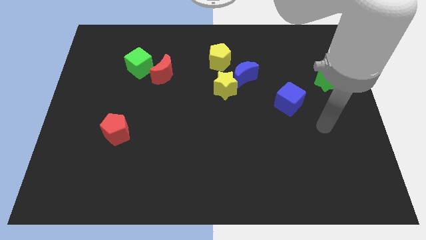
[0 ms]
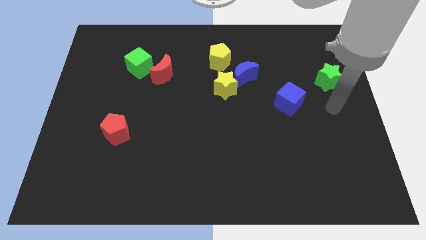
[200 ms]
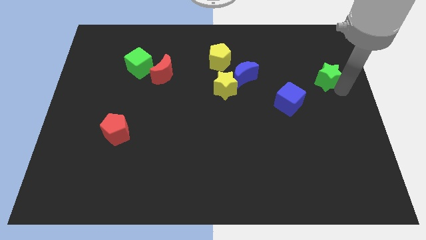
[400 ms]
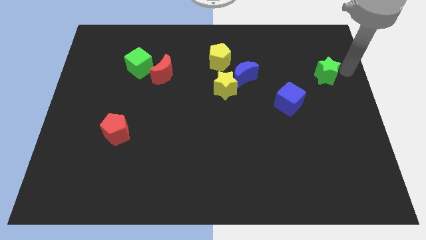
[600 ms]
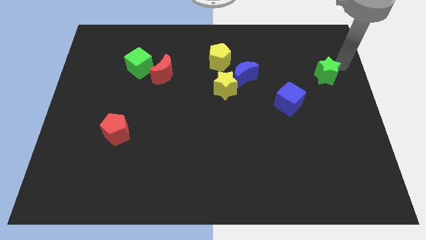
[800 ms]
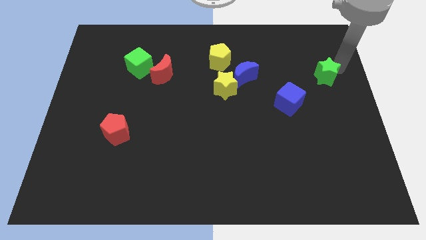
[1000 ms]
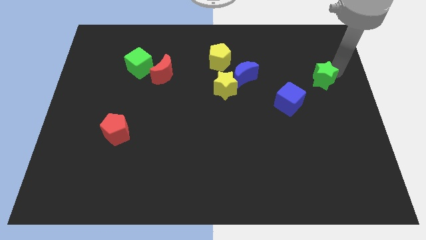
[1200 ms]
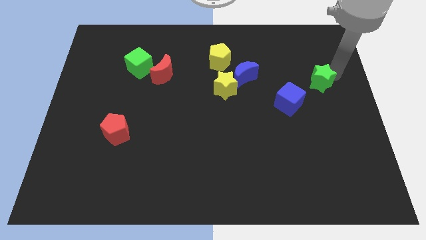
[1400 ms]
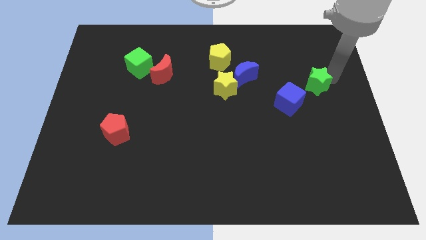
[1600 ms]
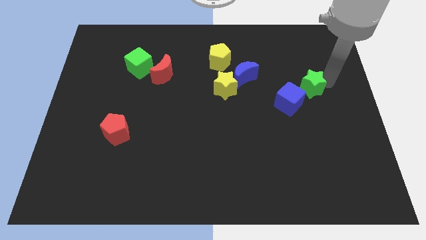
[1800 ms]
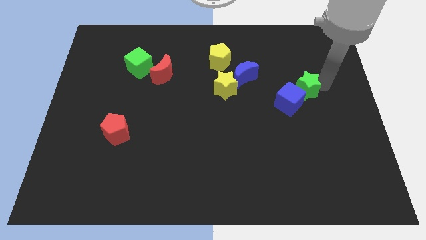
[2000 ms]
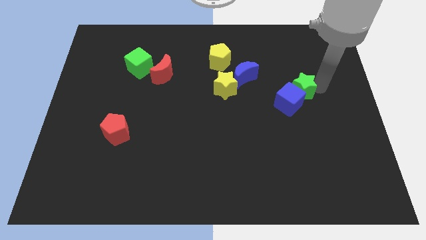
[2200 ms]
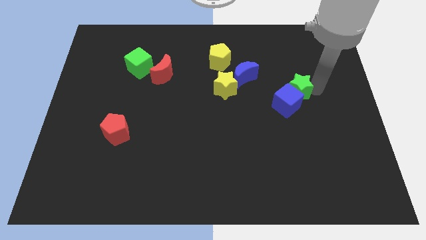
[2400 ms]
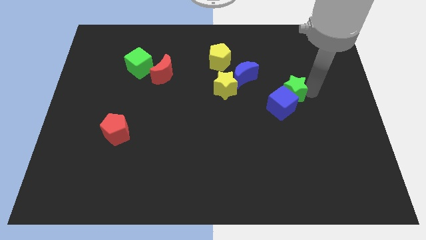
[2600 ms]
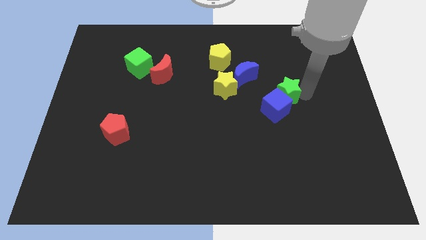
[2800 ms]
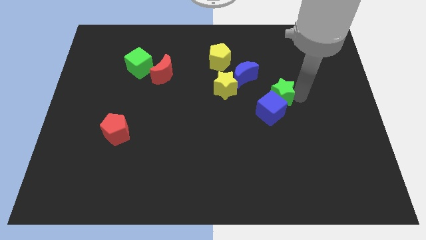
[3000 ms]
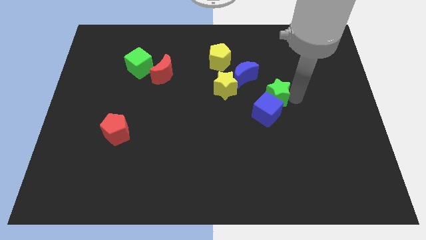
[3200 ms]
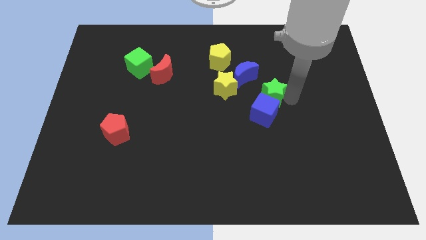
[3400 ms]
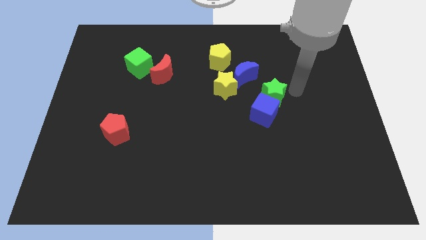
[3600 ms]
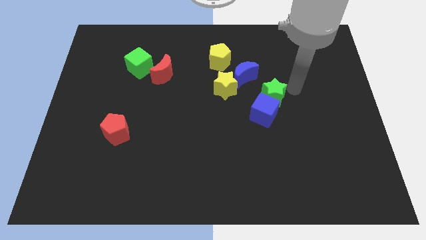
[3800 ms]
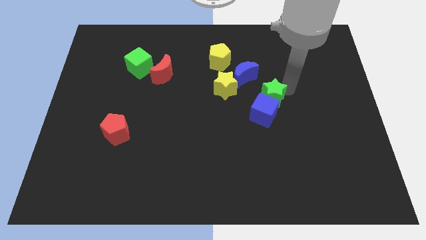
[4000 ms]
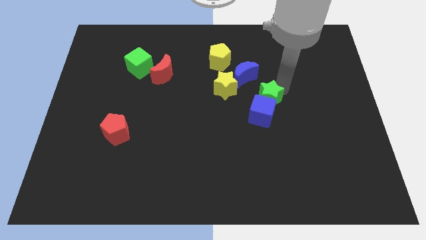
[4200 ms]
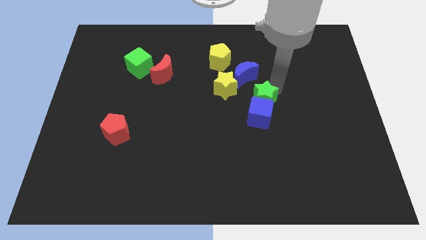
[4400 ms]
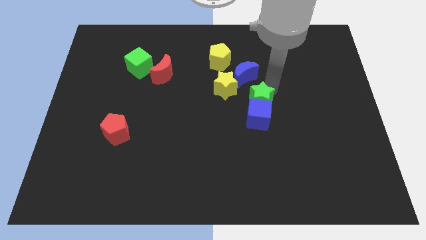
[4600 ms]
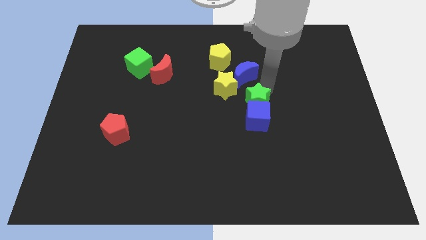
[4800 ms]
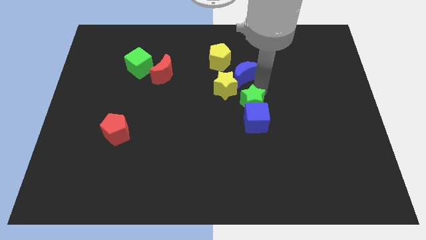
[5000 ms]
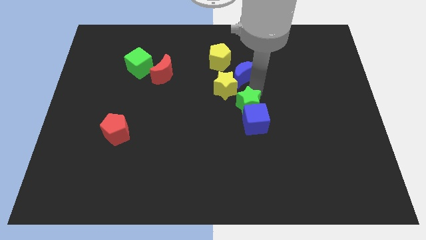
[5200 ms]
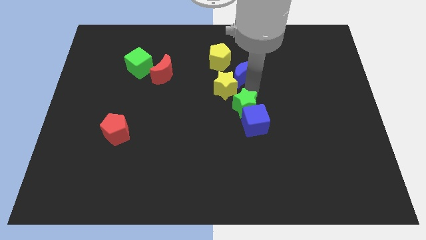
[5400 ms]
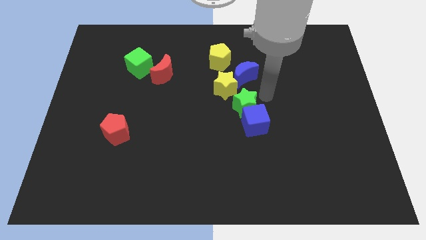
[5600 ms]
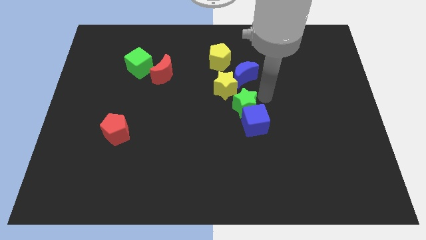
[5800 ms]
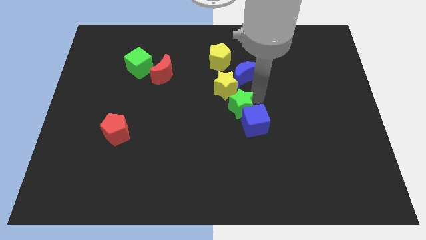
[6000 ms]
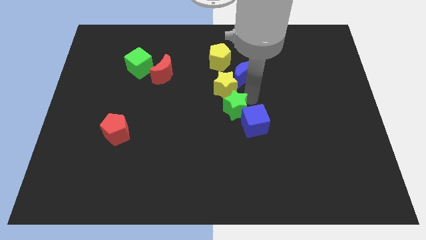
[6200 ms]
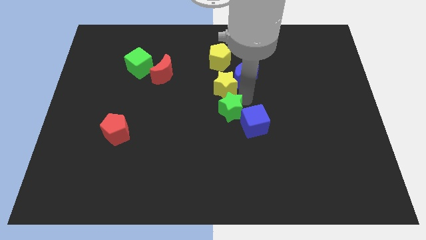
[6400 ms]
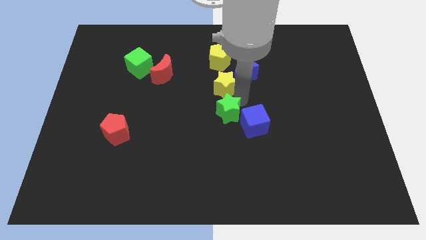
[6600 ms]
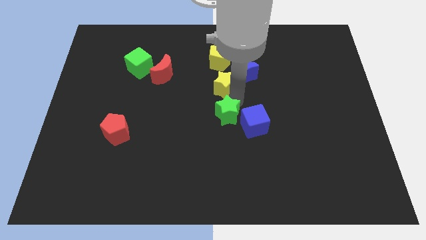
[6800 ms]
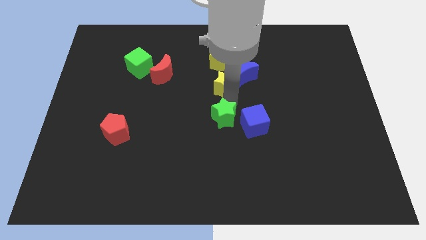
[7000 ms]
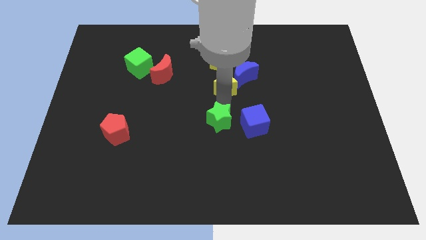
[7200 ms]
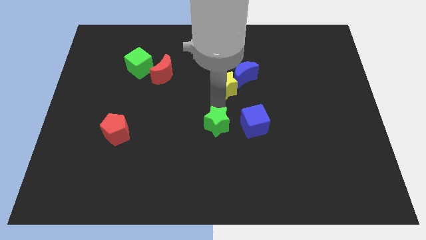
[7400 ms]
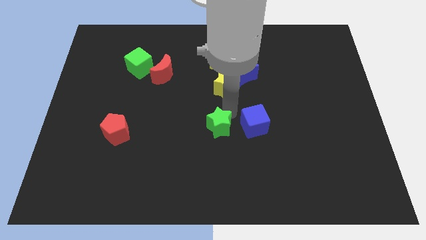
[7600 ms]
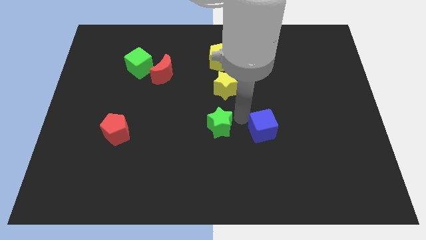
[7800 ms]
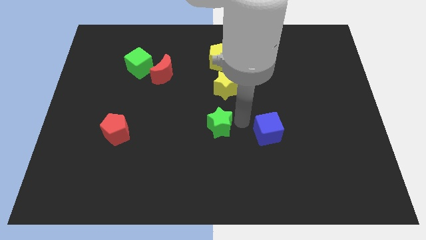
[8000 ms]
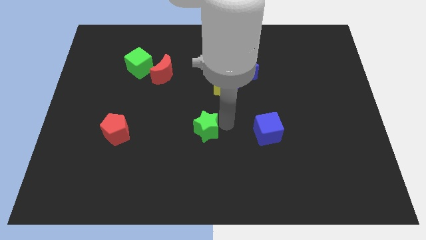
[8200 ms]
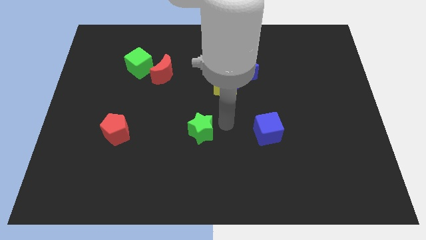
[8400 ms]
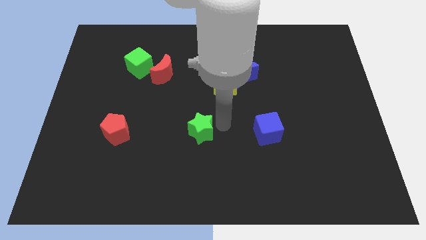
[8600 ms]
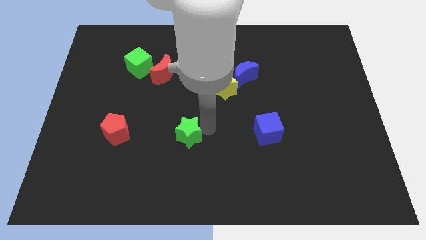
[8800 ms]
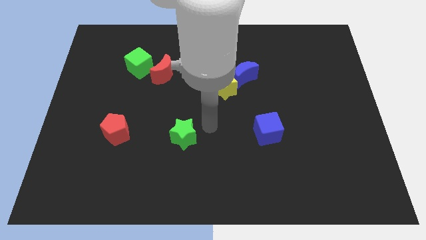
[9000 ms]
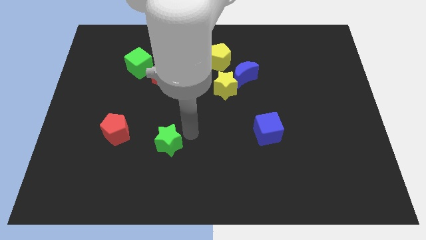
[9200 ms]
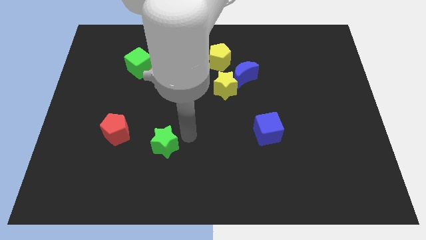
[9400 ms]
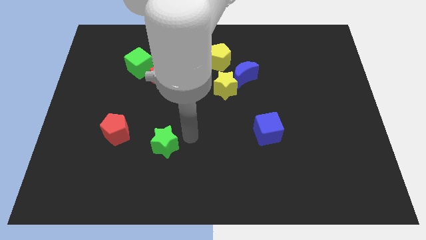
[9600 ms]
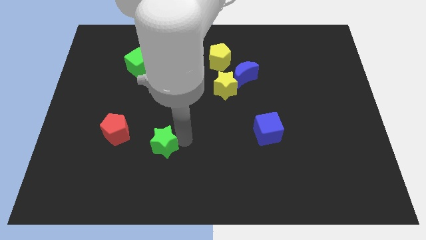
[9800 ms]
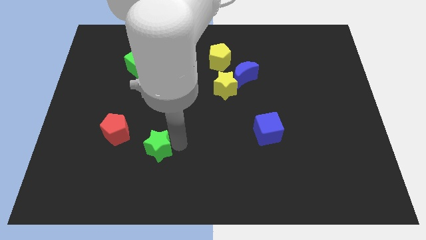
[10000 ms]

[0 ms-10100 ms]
put the green star diagonally down and to the right of the red pentagon

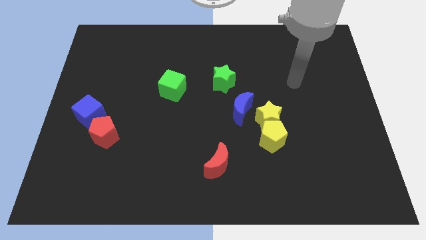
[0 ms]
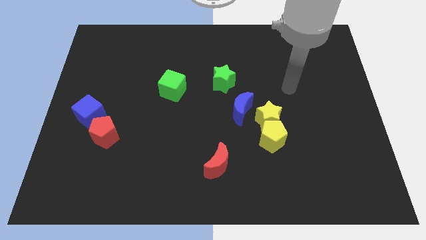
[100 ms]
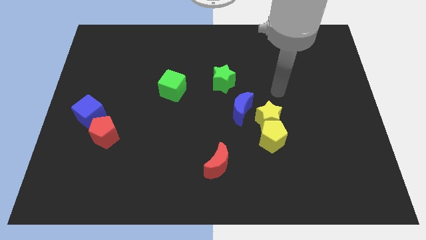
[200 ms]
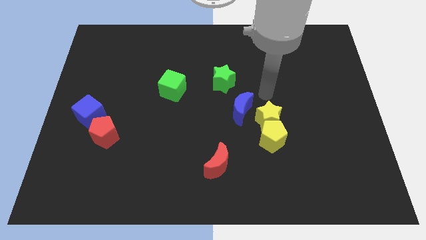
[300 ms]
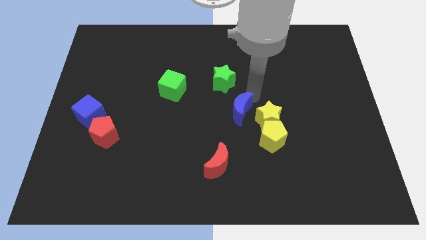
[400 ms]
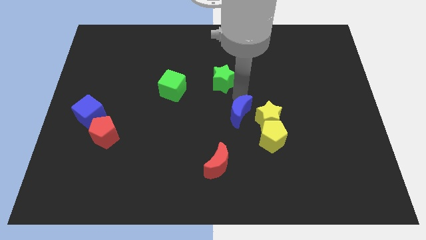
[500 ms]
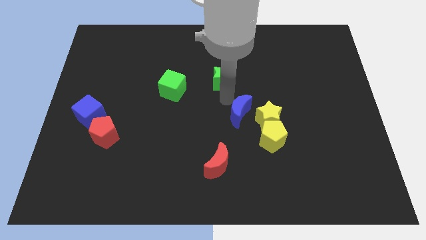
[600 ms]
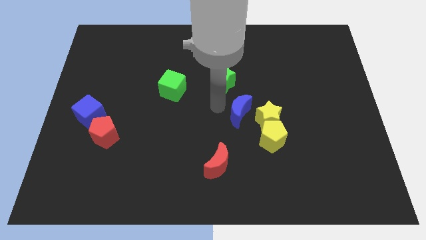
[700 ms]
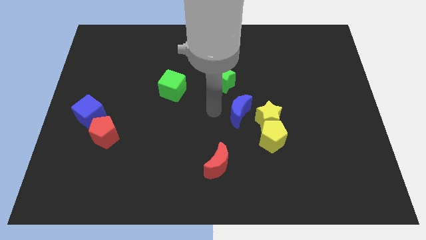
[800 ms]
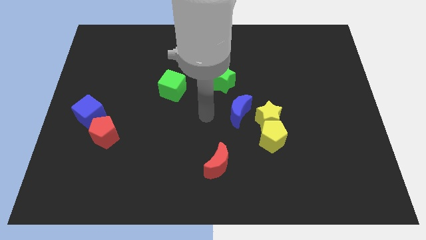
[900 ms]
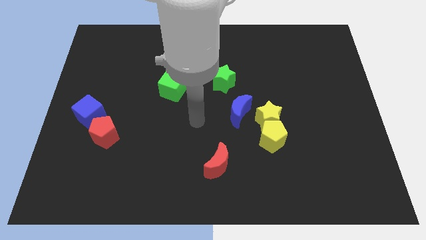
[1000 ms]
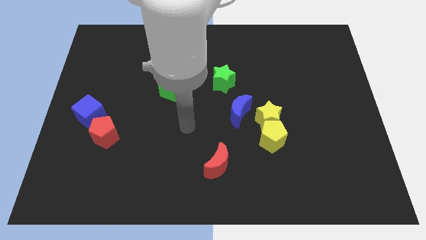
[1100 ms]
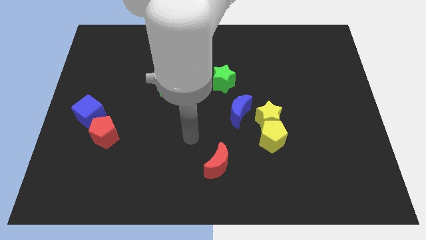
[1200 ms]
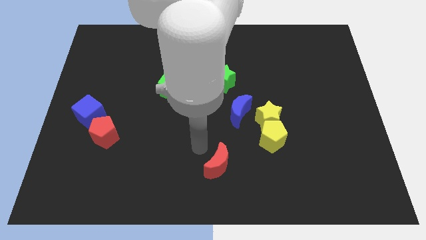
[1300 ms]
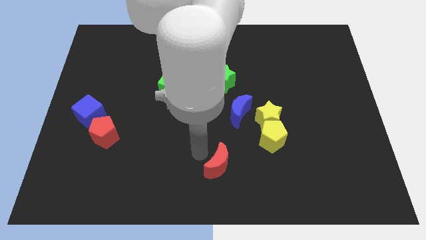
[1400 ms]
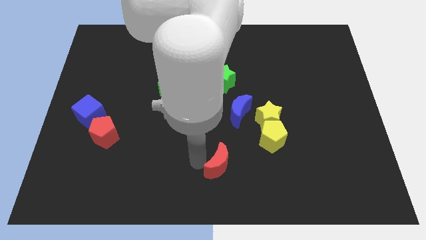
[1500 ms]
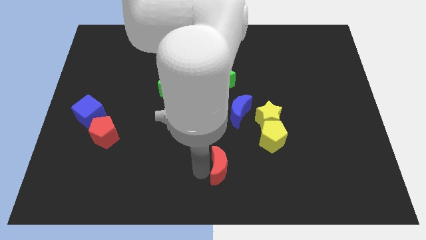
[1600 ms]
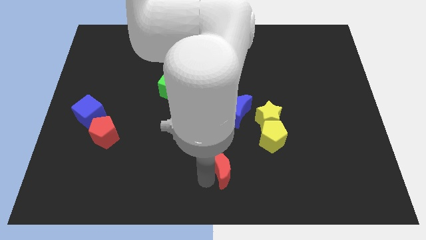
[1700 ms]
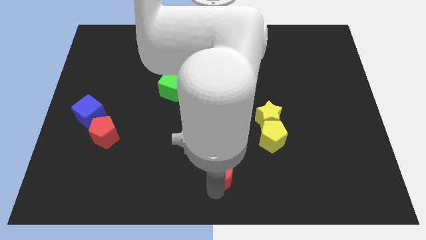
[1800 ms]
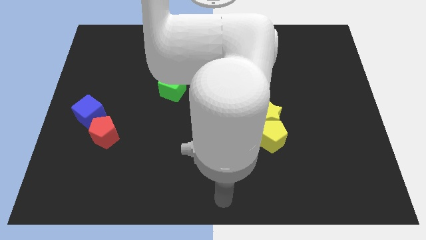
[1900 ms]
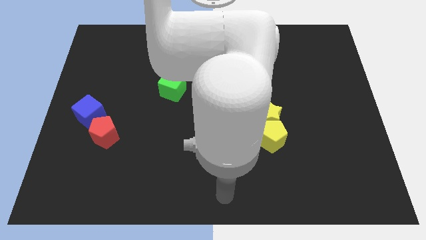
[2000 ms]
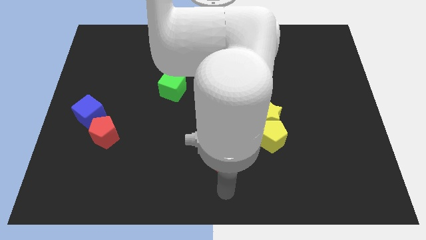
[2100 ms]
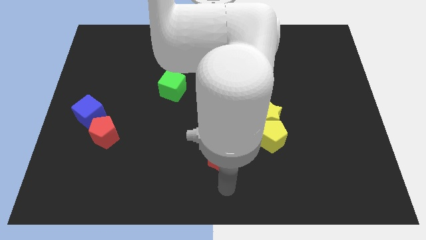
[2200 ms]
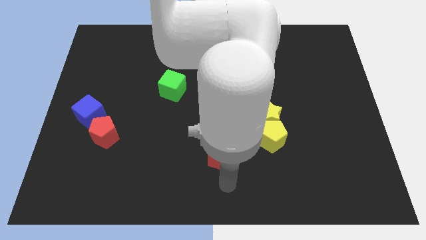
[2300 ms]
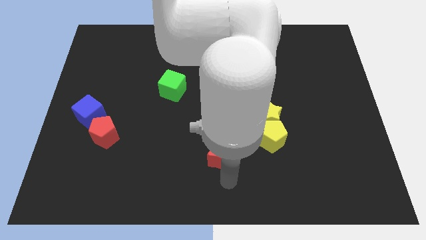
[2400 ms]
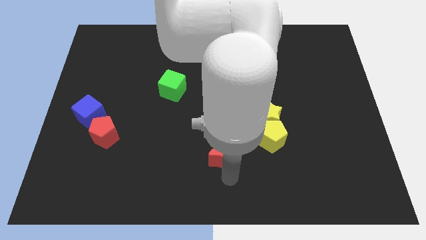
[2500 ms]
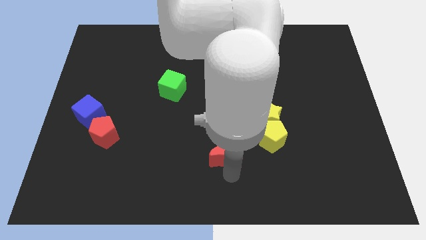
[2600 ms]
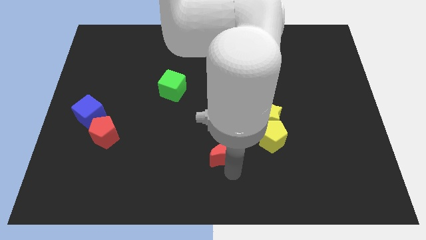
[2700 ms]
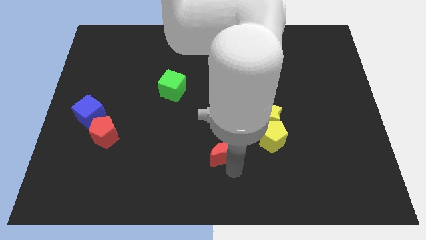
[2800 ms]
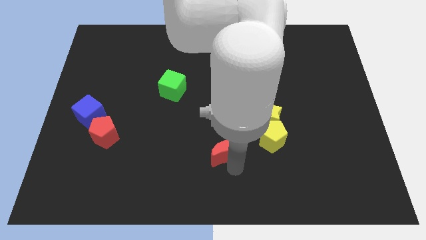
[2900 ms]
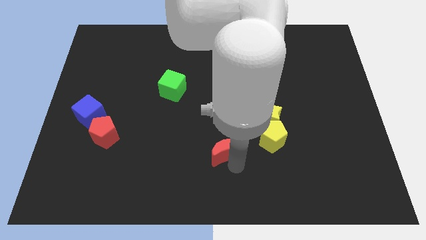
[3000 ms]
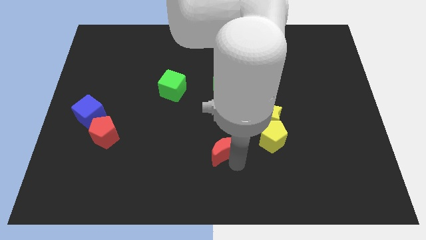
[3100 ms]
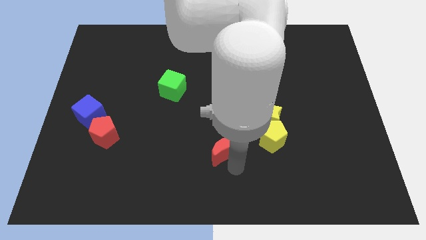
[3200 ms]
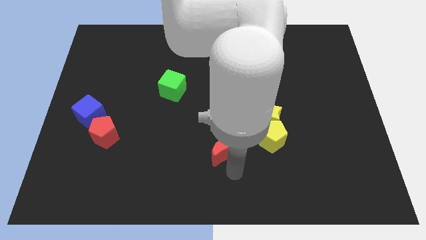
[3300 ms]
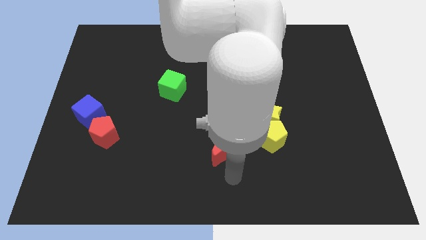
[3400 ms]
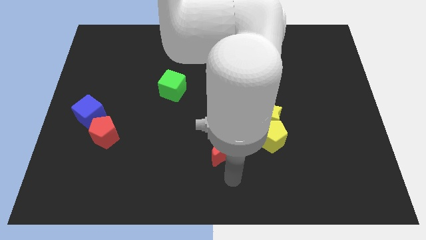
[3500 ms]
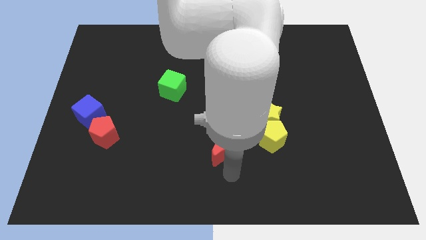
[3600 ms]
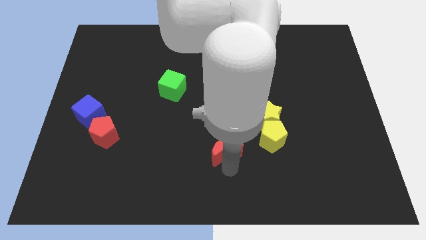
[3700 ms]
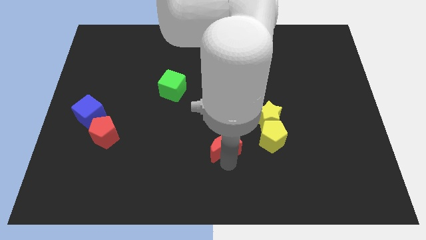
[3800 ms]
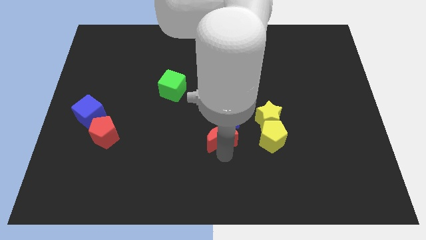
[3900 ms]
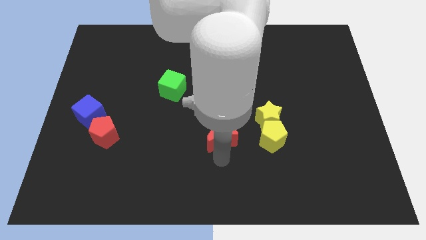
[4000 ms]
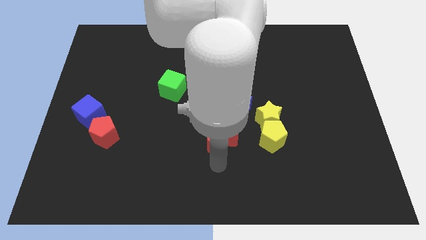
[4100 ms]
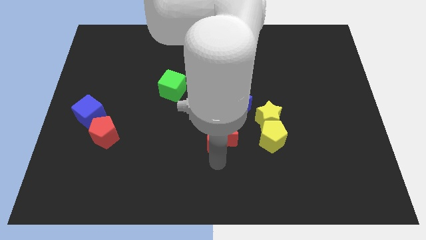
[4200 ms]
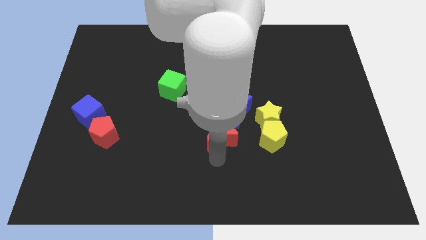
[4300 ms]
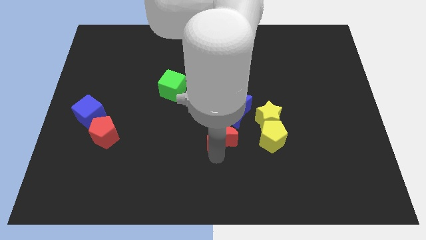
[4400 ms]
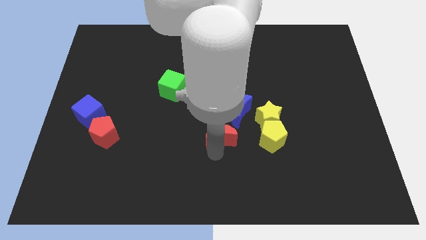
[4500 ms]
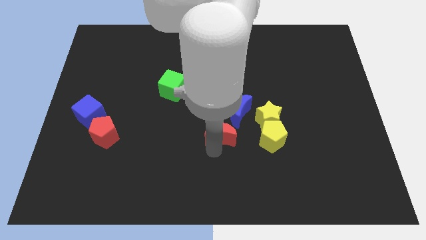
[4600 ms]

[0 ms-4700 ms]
put the red moon to the bottom side of the green star
